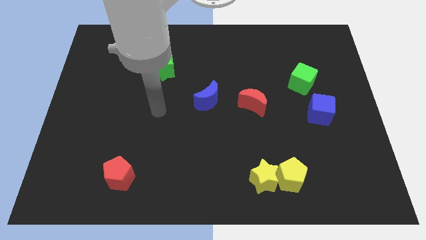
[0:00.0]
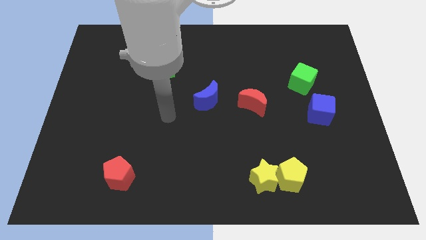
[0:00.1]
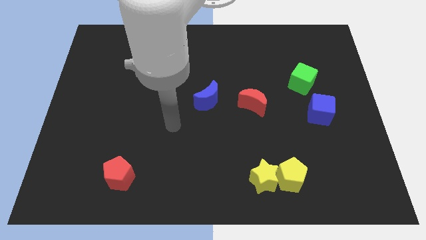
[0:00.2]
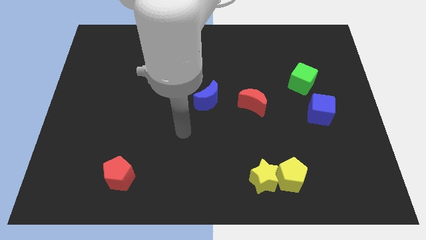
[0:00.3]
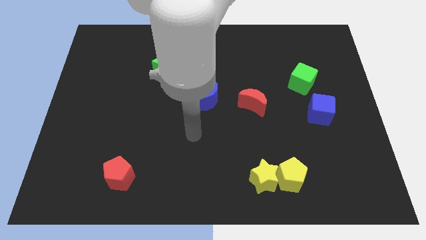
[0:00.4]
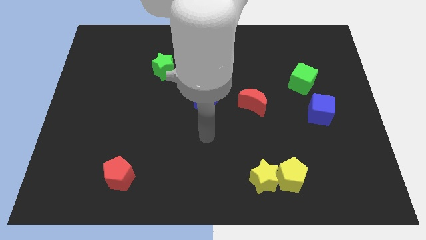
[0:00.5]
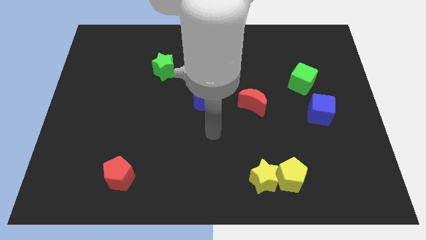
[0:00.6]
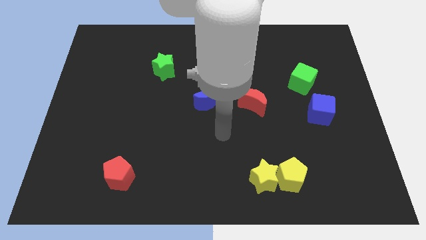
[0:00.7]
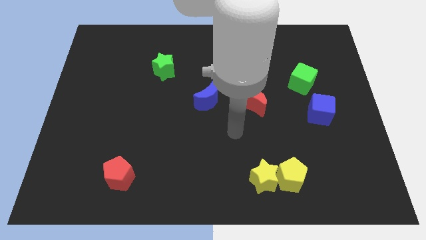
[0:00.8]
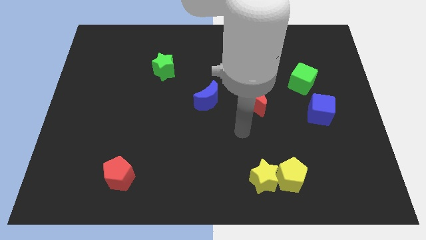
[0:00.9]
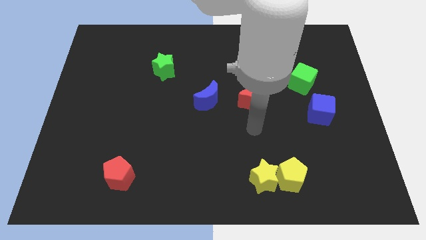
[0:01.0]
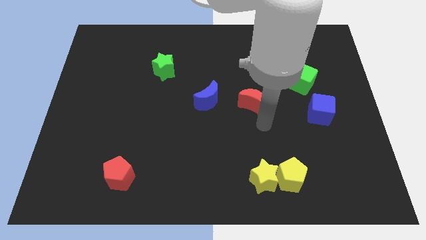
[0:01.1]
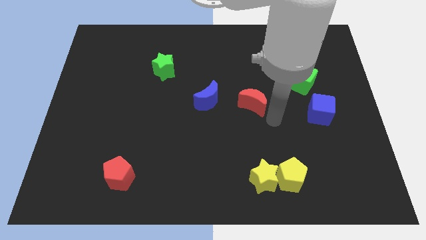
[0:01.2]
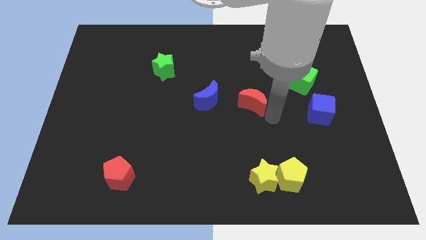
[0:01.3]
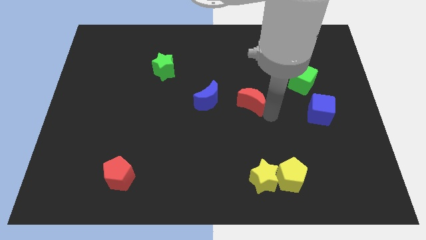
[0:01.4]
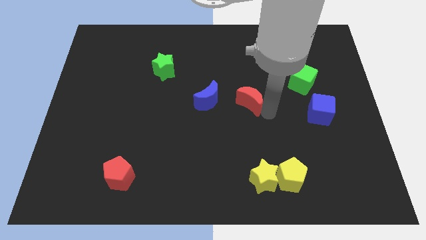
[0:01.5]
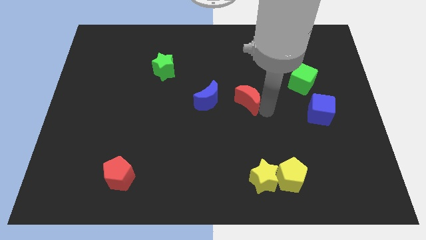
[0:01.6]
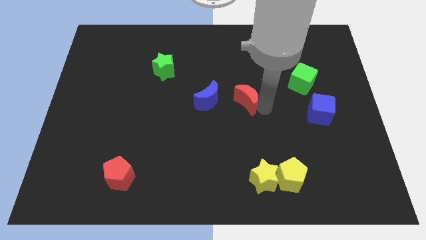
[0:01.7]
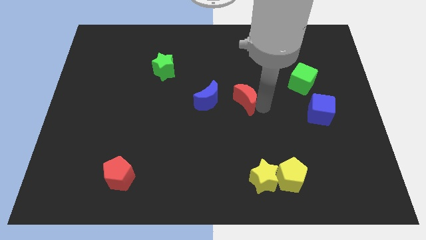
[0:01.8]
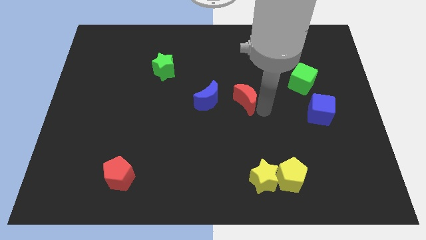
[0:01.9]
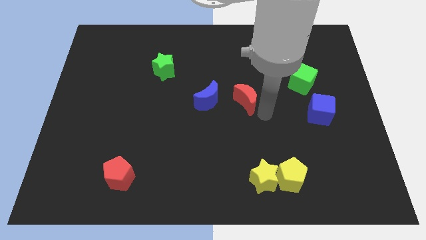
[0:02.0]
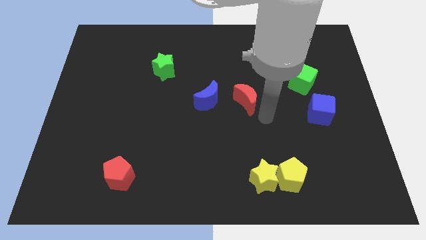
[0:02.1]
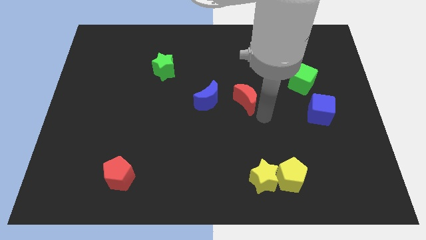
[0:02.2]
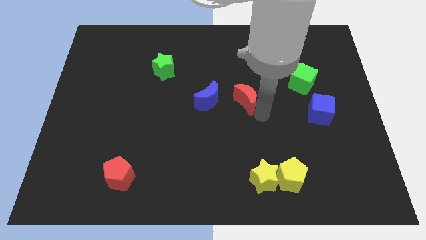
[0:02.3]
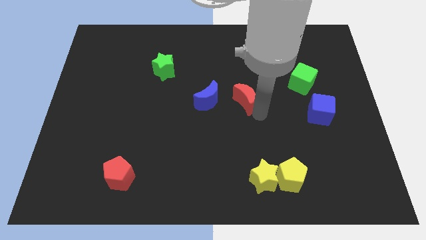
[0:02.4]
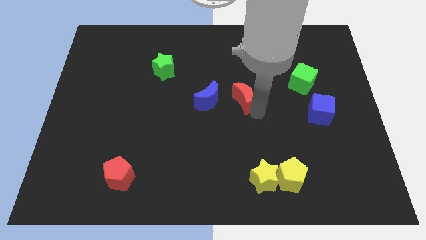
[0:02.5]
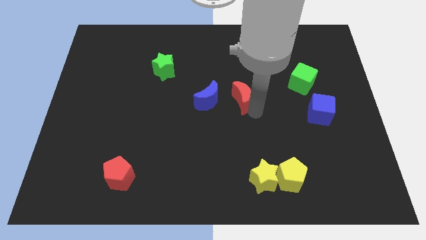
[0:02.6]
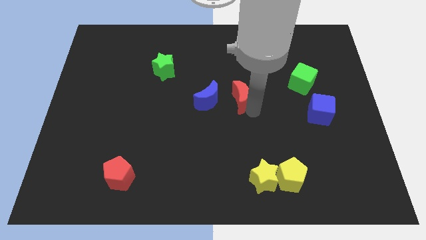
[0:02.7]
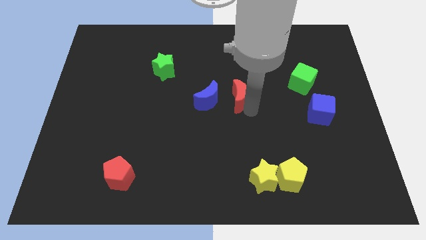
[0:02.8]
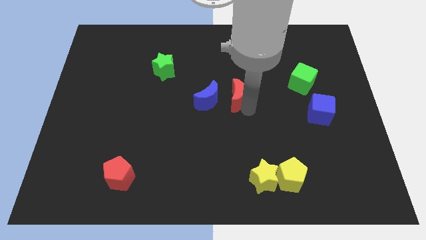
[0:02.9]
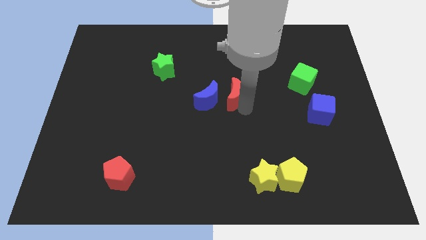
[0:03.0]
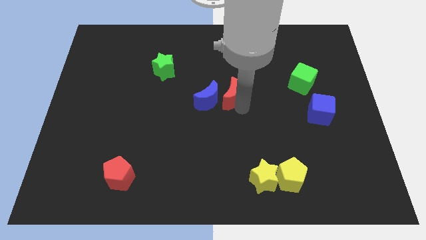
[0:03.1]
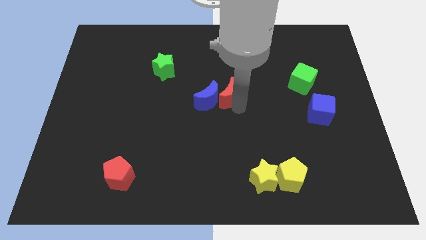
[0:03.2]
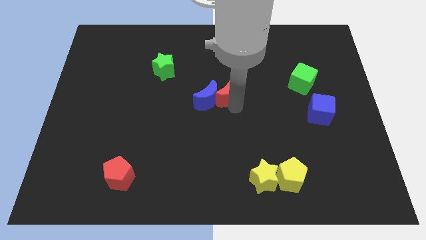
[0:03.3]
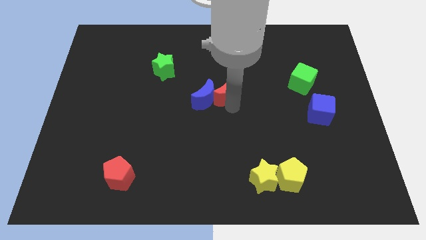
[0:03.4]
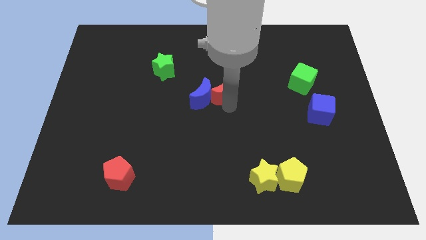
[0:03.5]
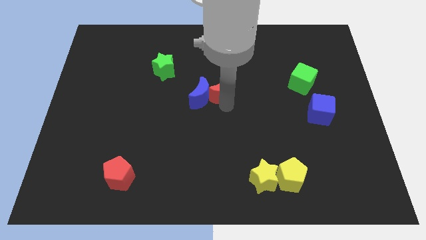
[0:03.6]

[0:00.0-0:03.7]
slide the red moon up and left diagonally a little bit

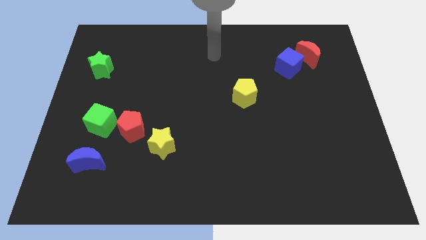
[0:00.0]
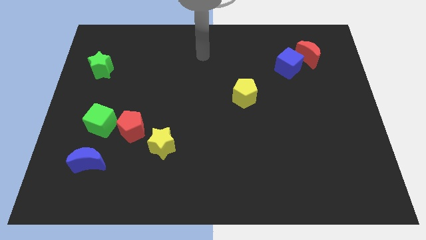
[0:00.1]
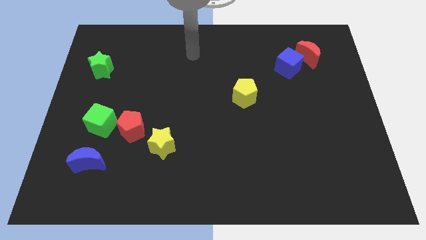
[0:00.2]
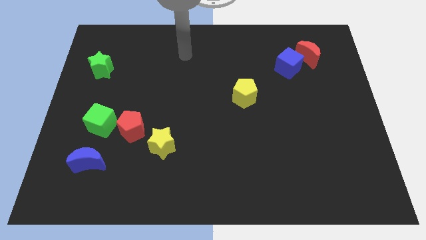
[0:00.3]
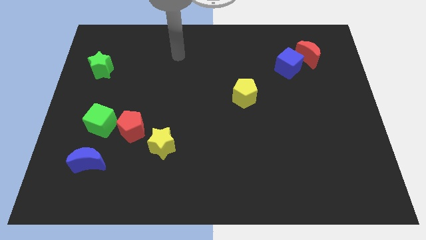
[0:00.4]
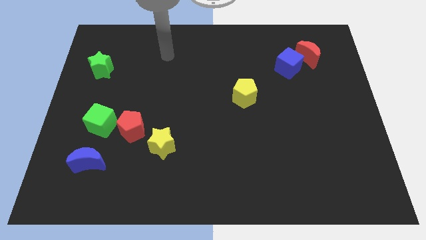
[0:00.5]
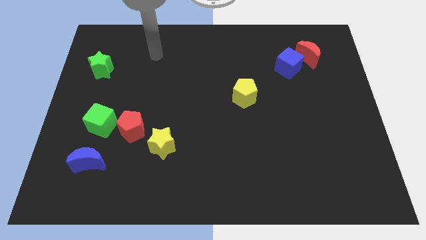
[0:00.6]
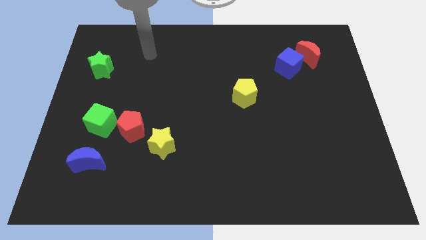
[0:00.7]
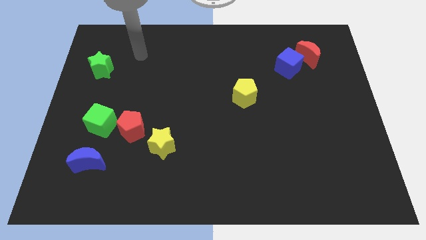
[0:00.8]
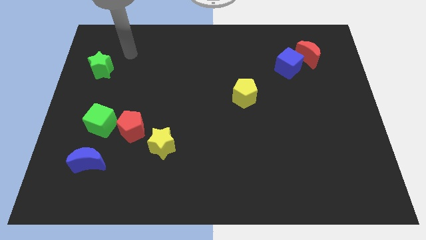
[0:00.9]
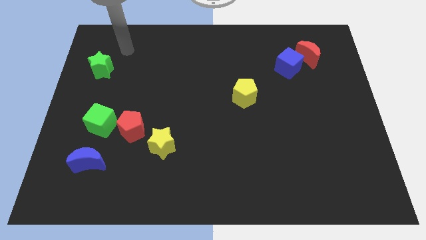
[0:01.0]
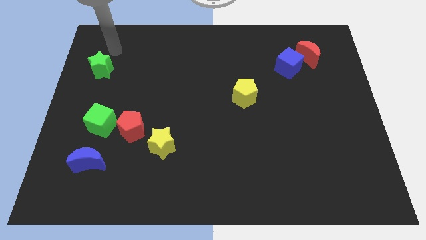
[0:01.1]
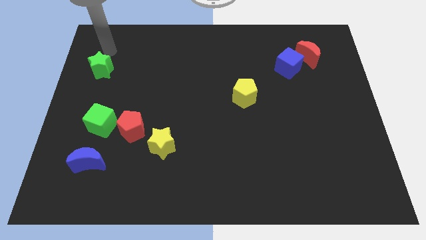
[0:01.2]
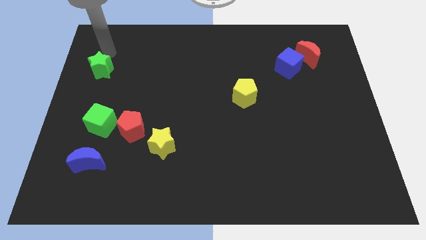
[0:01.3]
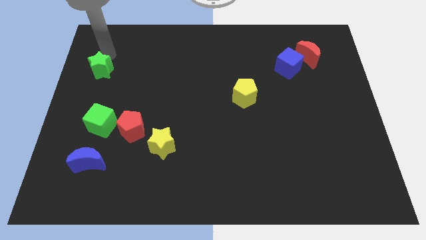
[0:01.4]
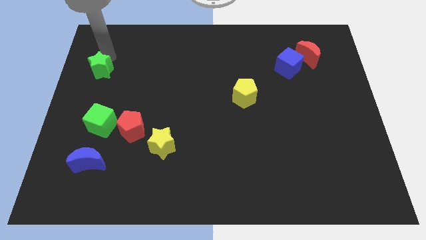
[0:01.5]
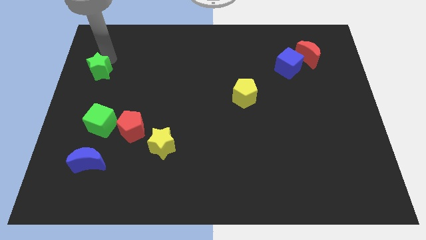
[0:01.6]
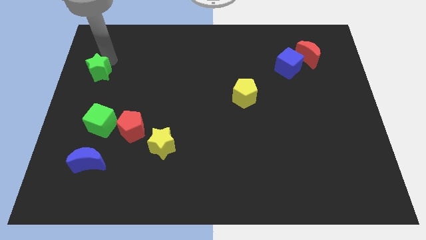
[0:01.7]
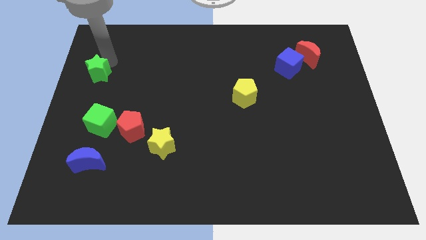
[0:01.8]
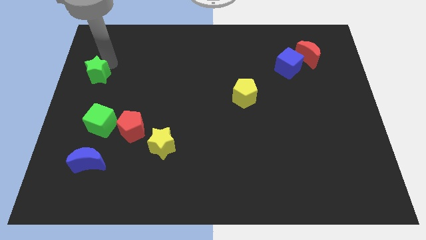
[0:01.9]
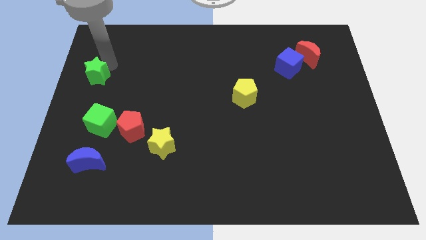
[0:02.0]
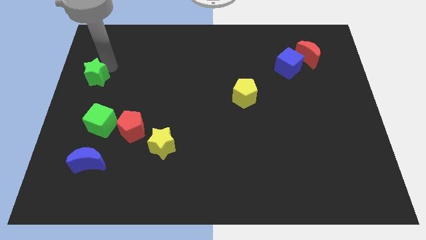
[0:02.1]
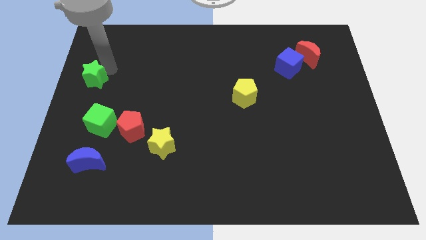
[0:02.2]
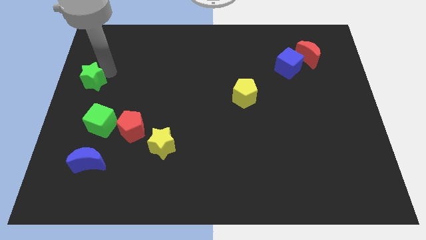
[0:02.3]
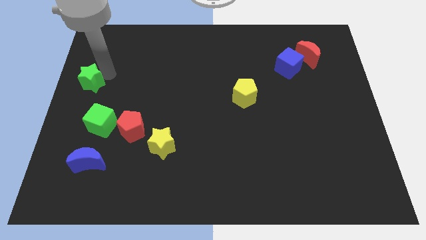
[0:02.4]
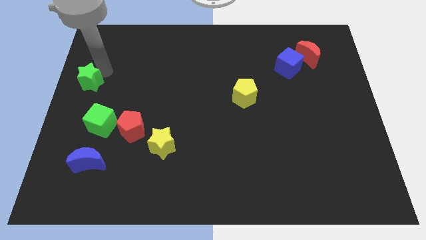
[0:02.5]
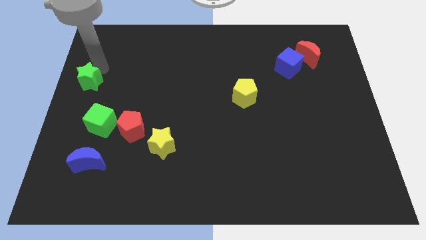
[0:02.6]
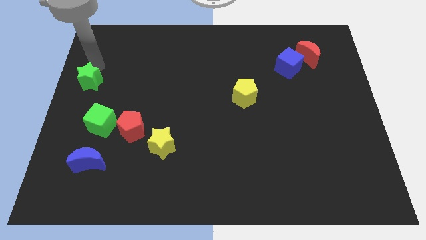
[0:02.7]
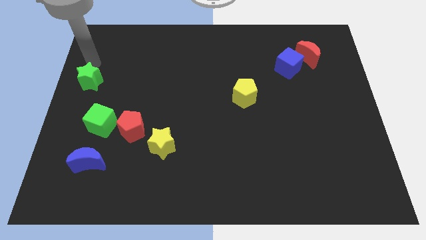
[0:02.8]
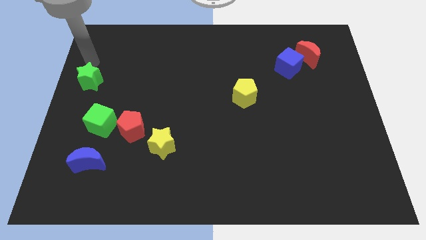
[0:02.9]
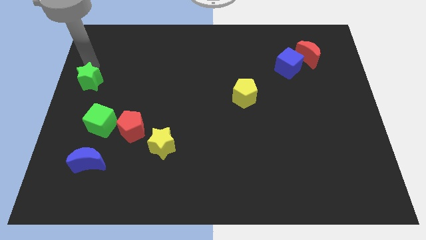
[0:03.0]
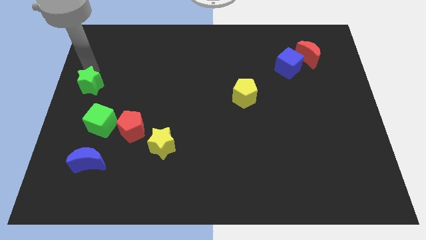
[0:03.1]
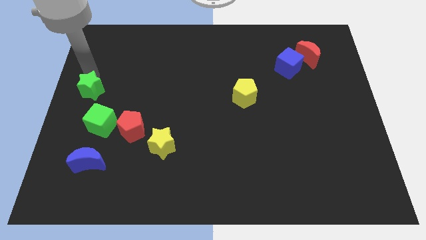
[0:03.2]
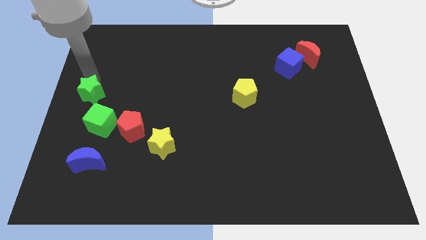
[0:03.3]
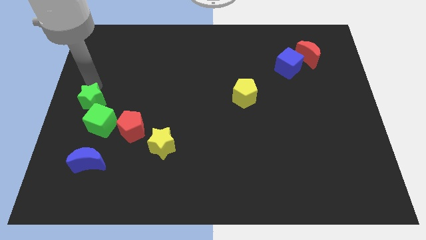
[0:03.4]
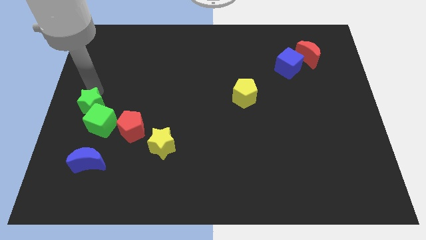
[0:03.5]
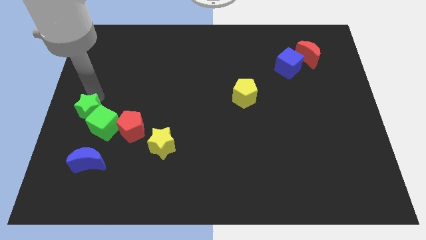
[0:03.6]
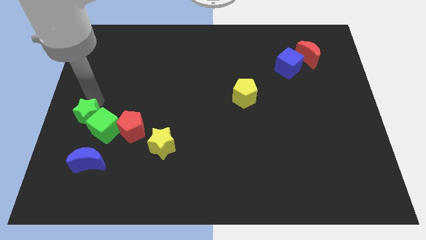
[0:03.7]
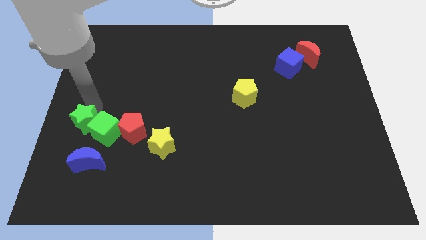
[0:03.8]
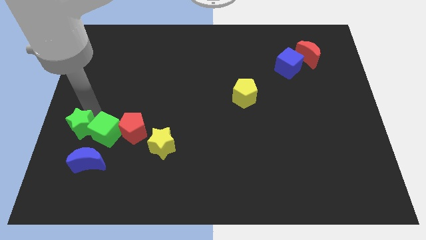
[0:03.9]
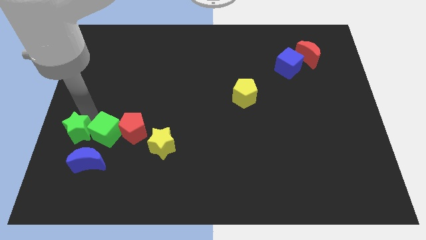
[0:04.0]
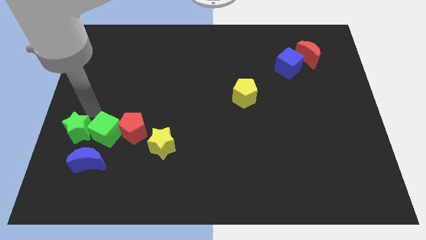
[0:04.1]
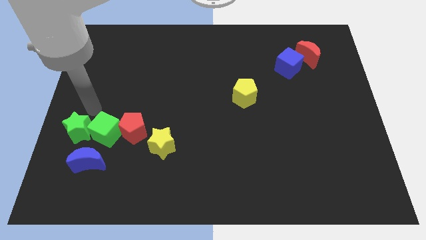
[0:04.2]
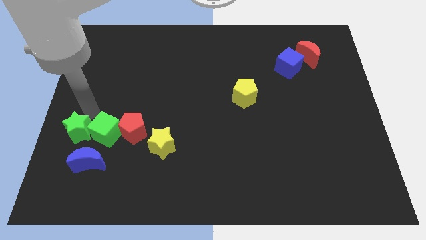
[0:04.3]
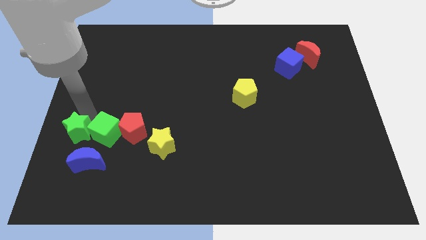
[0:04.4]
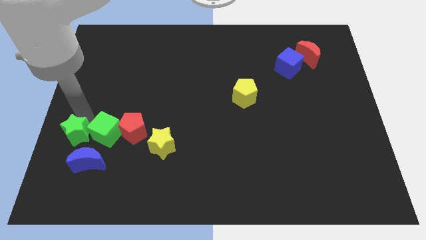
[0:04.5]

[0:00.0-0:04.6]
slide the green star down
